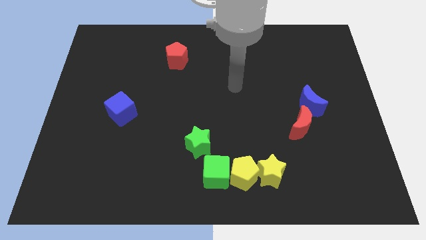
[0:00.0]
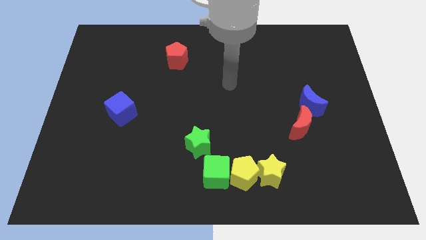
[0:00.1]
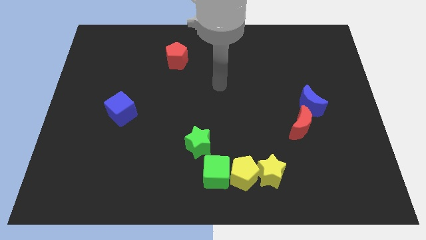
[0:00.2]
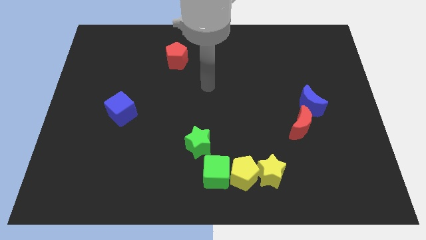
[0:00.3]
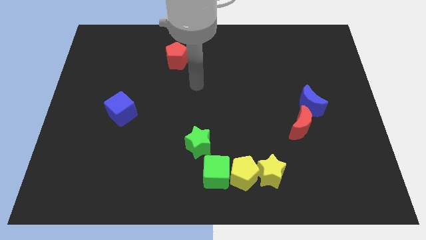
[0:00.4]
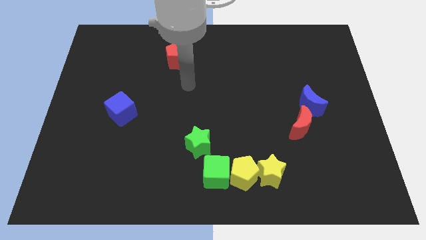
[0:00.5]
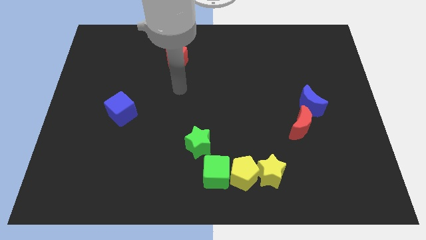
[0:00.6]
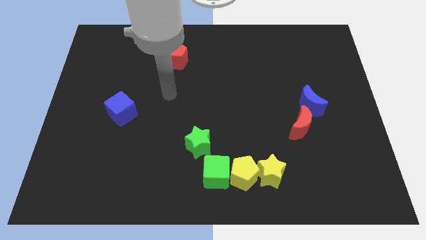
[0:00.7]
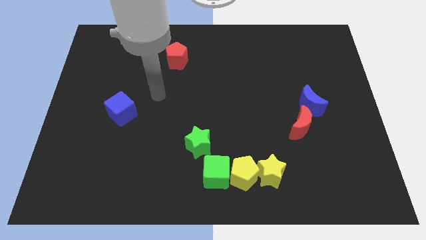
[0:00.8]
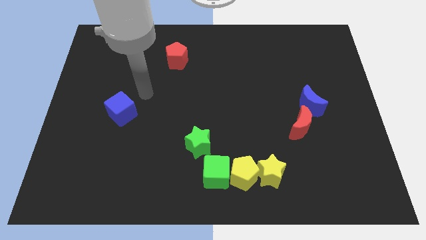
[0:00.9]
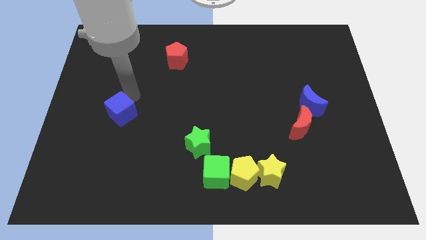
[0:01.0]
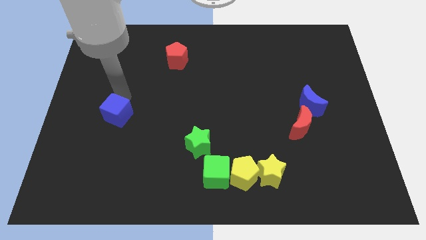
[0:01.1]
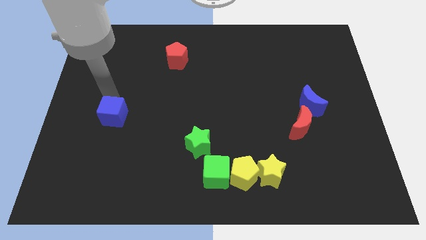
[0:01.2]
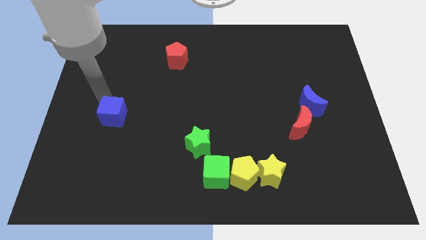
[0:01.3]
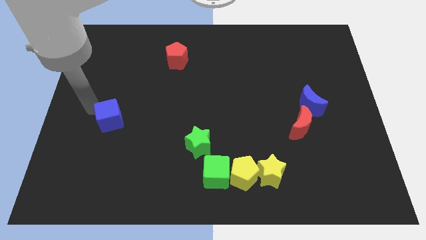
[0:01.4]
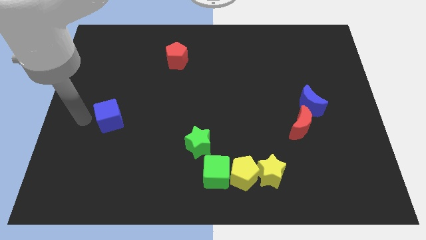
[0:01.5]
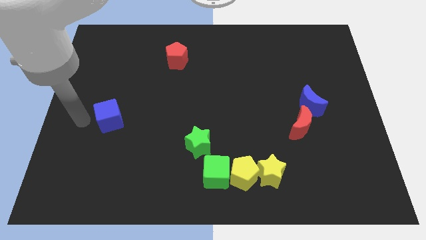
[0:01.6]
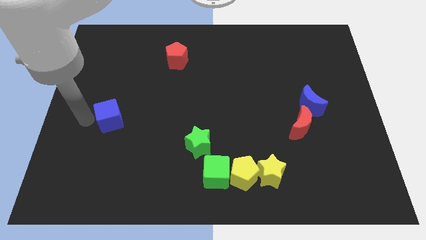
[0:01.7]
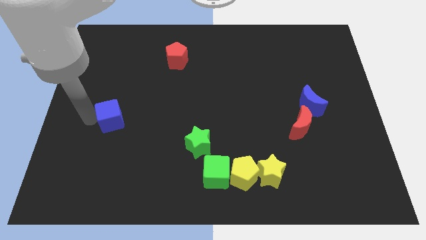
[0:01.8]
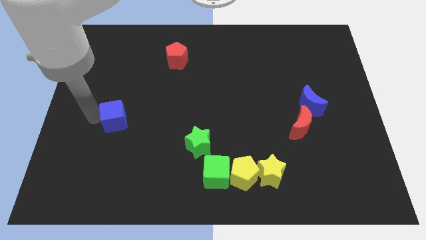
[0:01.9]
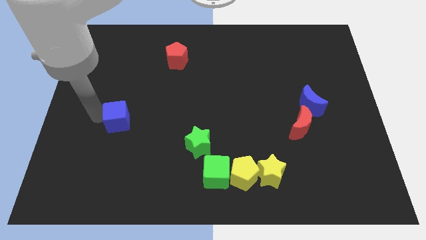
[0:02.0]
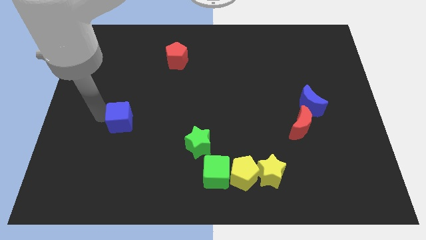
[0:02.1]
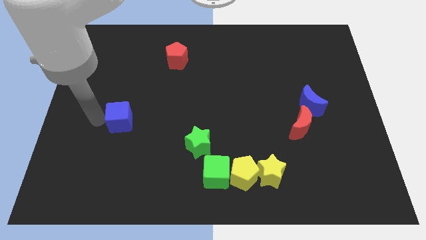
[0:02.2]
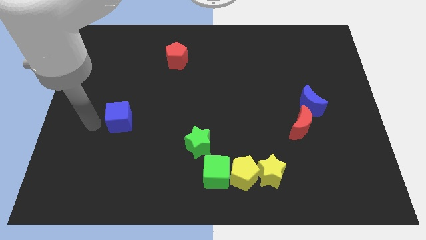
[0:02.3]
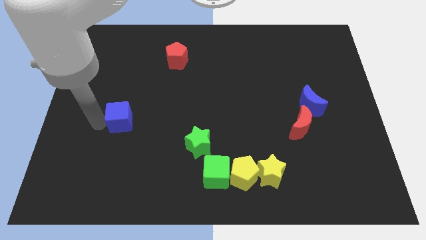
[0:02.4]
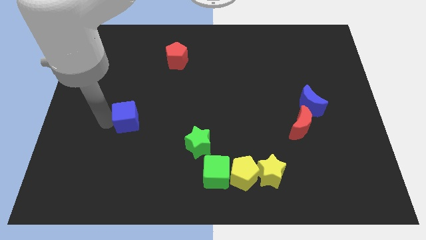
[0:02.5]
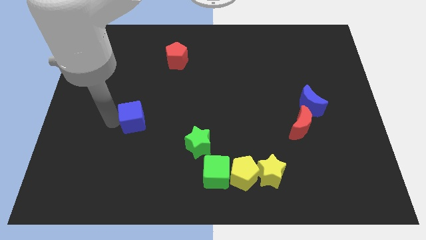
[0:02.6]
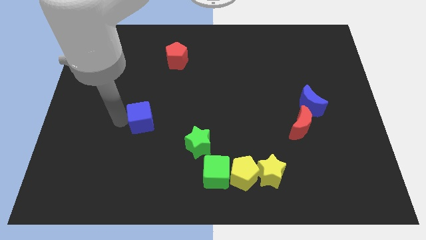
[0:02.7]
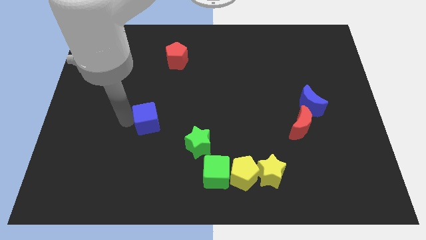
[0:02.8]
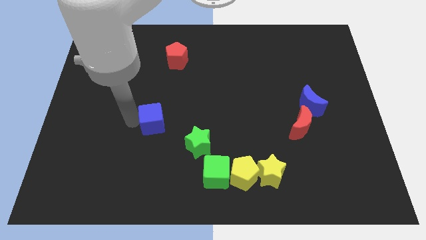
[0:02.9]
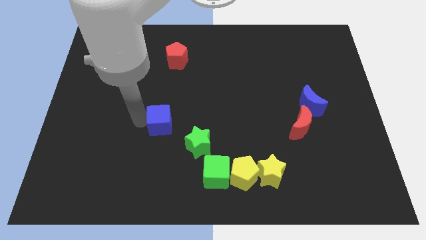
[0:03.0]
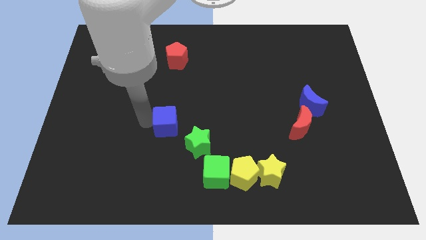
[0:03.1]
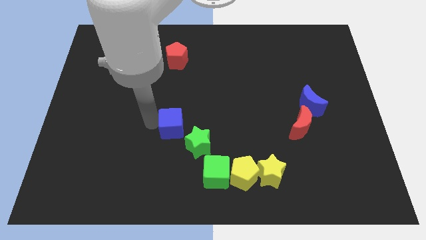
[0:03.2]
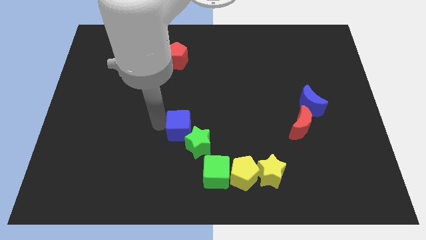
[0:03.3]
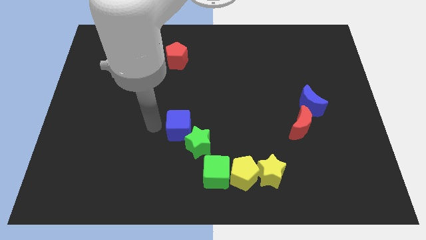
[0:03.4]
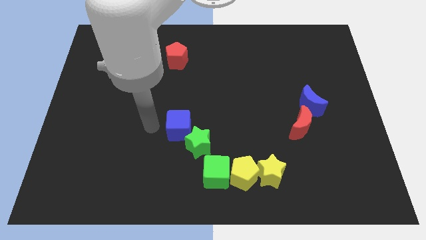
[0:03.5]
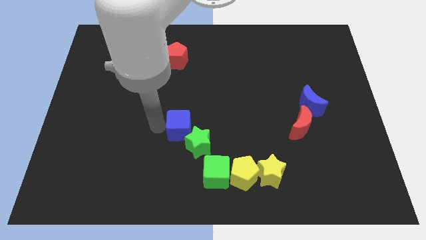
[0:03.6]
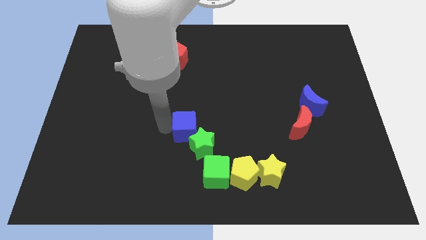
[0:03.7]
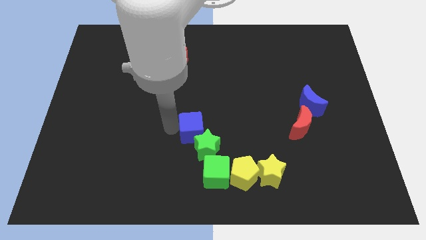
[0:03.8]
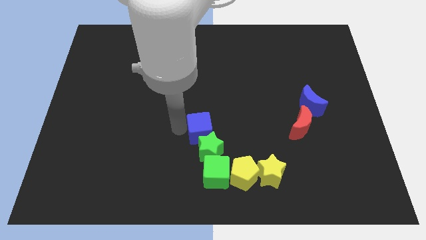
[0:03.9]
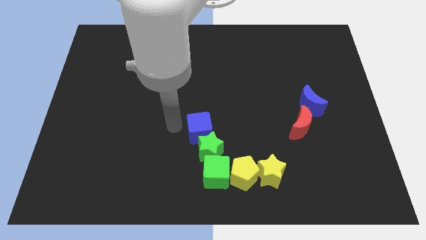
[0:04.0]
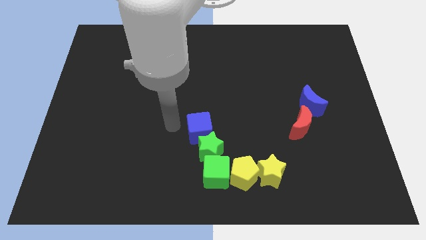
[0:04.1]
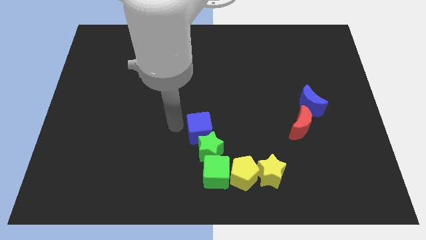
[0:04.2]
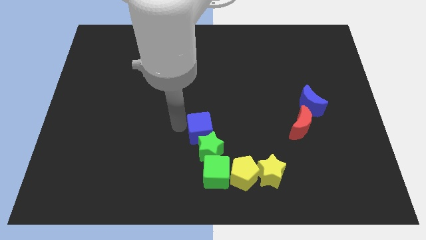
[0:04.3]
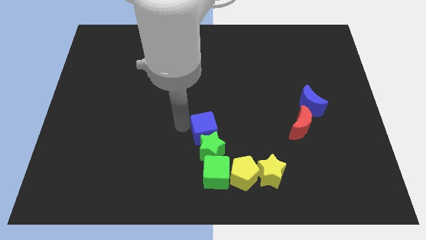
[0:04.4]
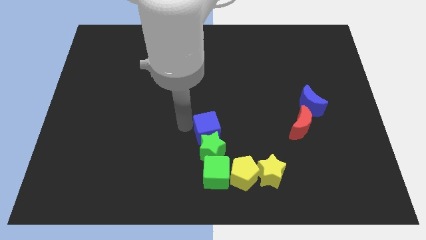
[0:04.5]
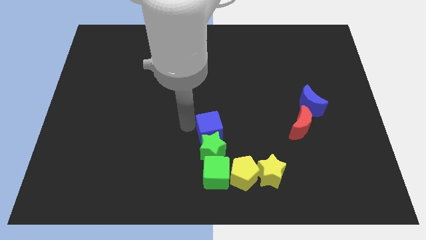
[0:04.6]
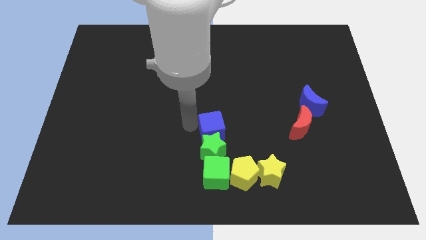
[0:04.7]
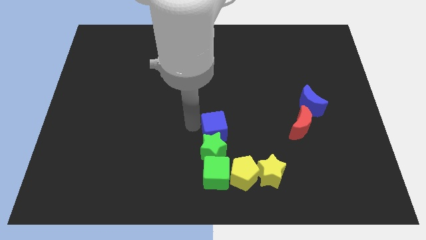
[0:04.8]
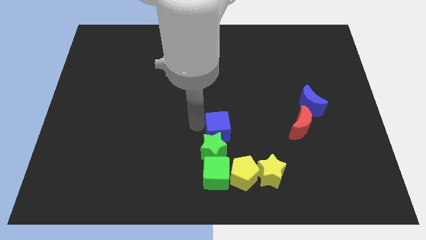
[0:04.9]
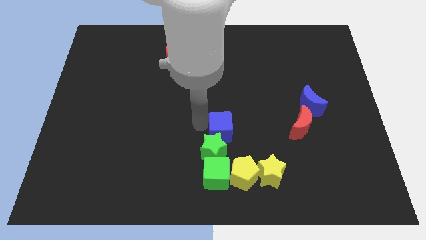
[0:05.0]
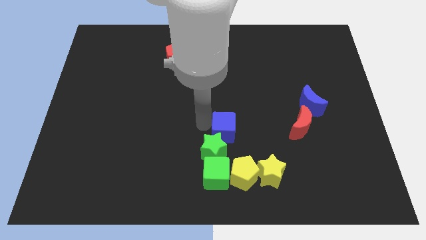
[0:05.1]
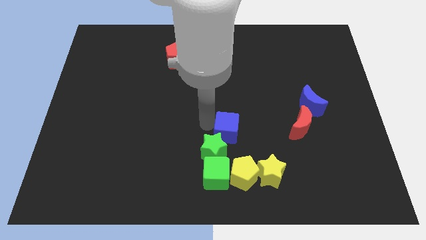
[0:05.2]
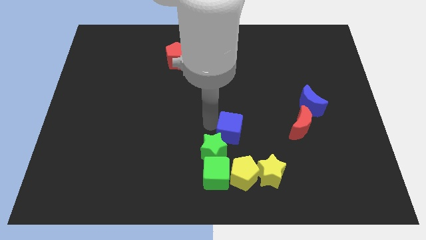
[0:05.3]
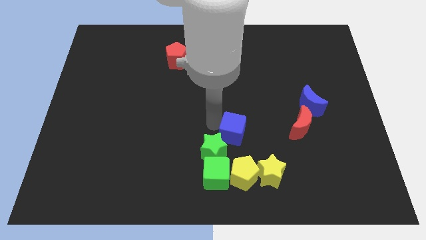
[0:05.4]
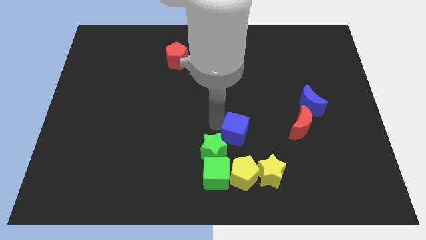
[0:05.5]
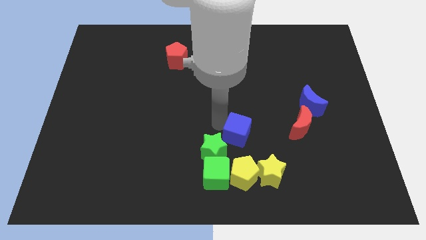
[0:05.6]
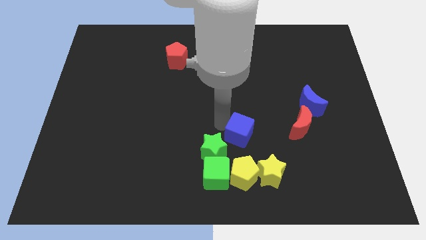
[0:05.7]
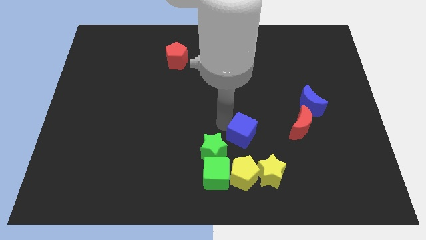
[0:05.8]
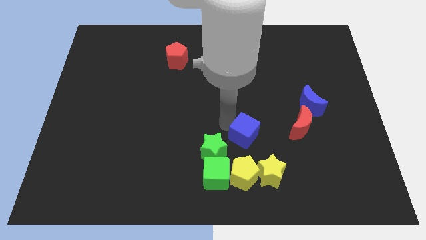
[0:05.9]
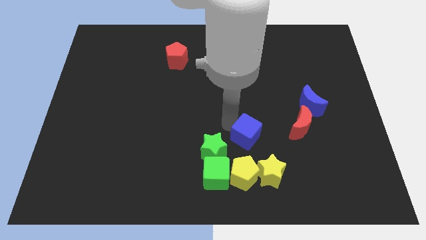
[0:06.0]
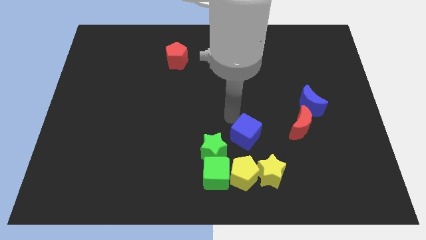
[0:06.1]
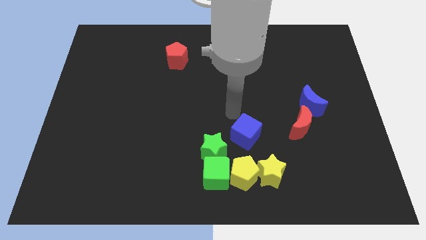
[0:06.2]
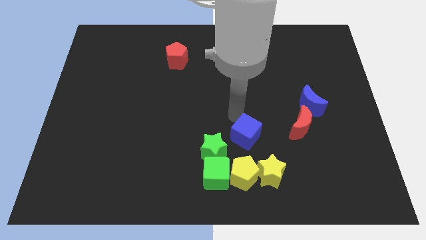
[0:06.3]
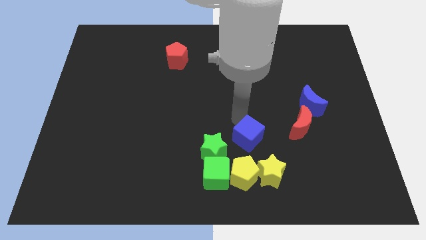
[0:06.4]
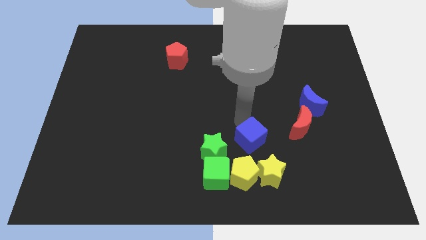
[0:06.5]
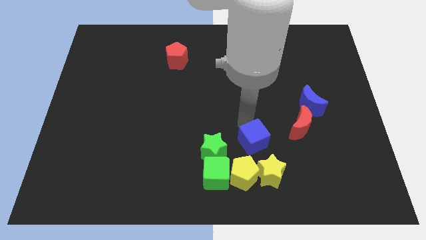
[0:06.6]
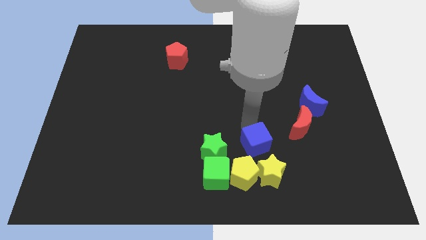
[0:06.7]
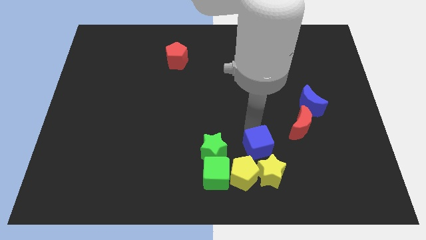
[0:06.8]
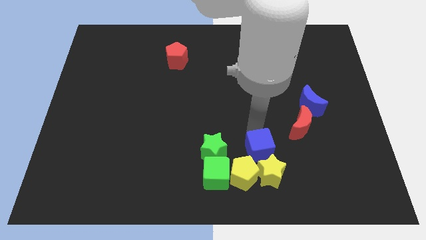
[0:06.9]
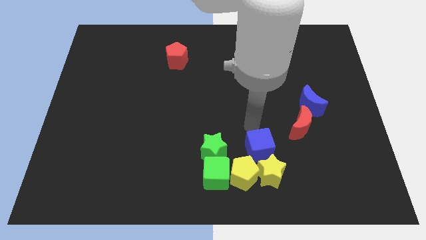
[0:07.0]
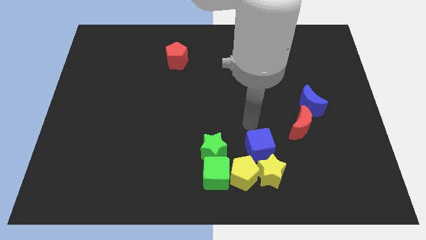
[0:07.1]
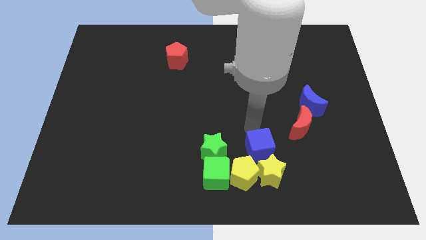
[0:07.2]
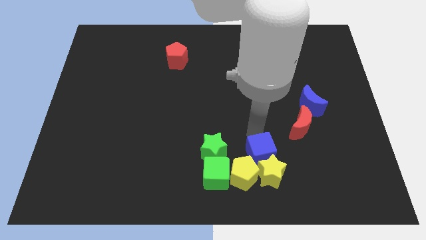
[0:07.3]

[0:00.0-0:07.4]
put the blue cube to the yellow star

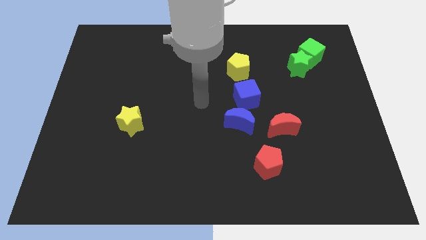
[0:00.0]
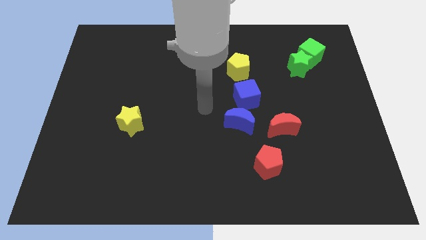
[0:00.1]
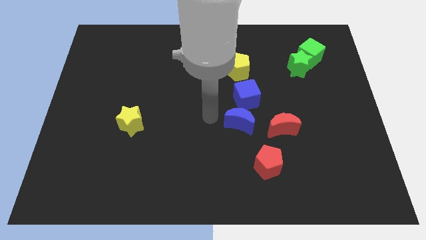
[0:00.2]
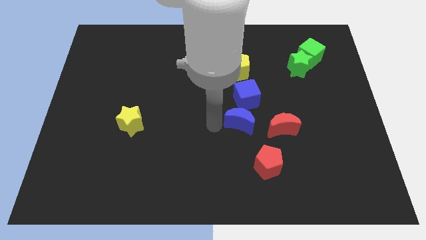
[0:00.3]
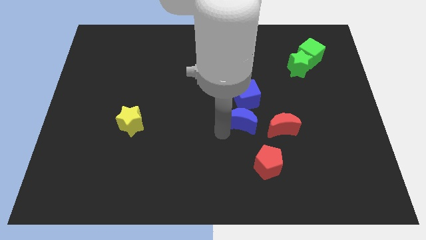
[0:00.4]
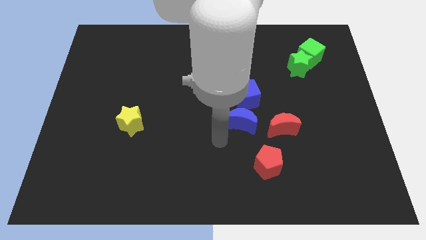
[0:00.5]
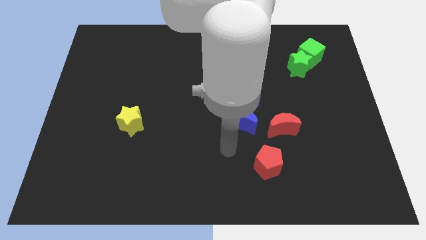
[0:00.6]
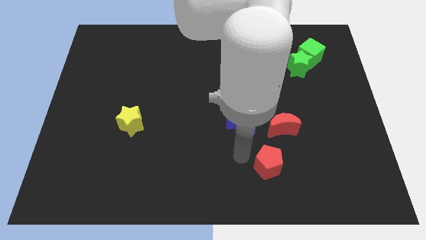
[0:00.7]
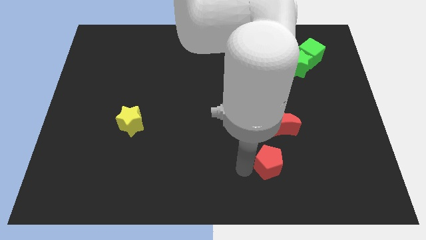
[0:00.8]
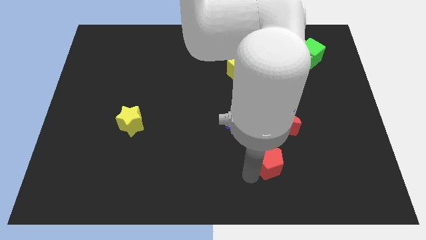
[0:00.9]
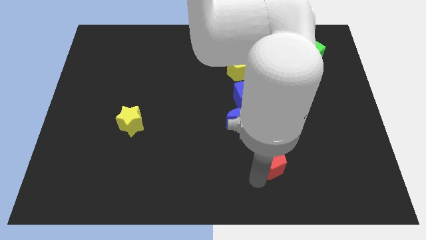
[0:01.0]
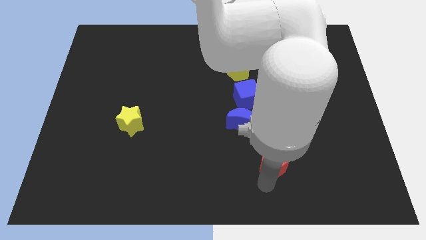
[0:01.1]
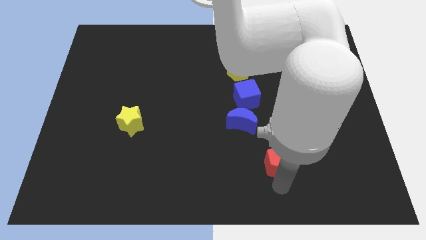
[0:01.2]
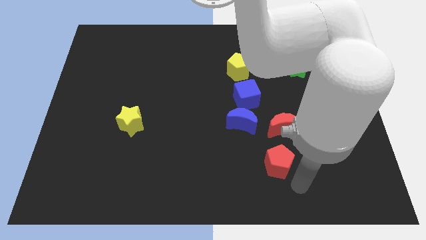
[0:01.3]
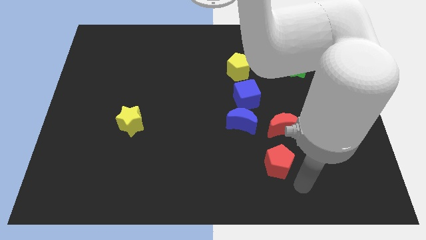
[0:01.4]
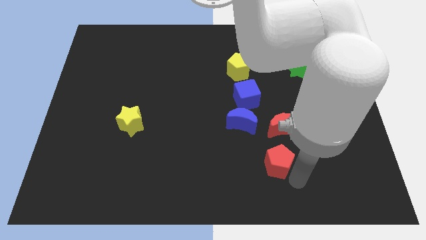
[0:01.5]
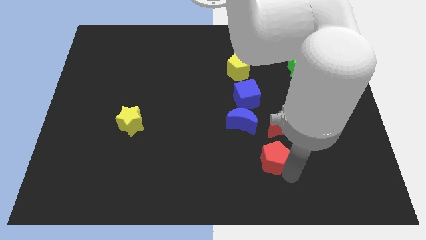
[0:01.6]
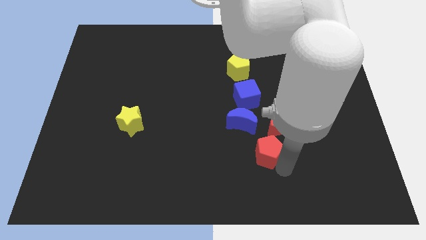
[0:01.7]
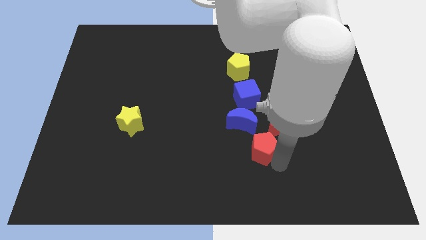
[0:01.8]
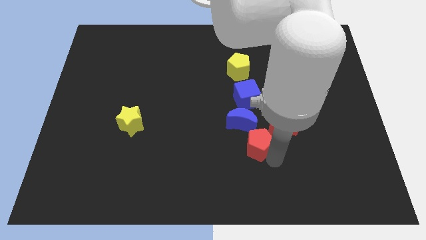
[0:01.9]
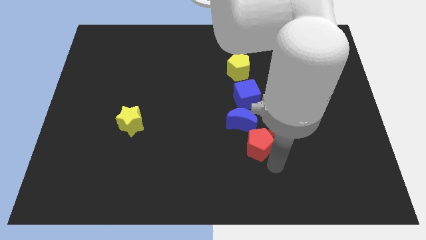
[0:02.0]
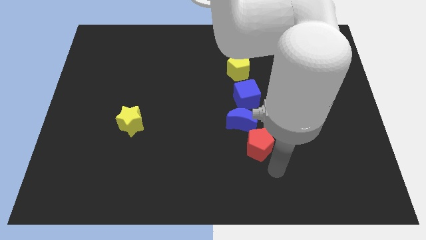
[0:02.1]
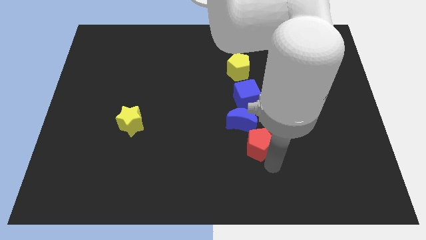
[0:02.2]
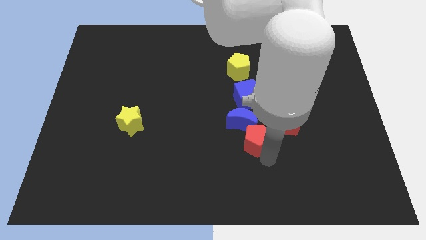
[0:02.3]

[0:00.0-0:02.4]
move the red pentagon towards the blue moon
